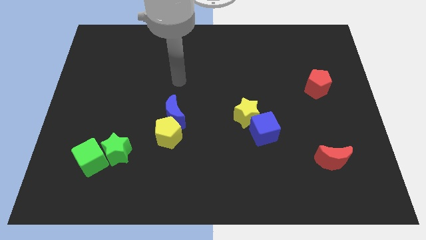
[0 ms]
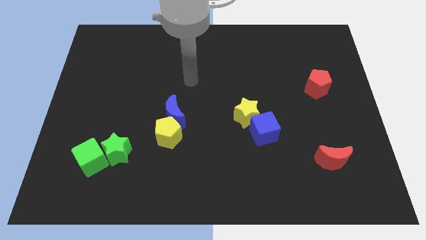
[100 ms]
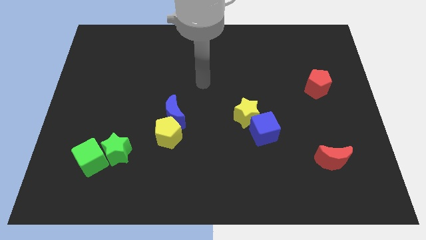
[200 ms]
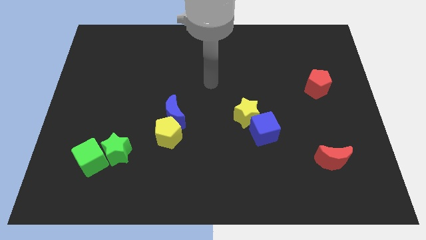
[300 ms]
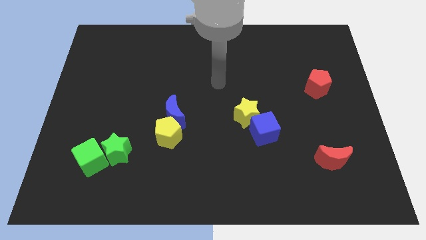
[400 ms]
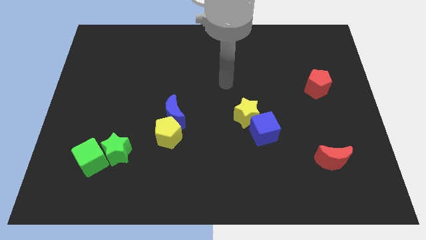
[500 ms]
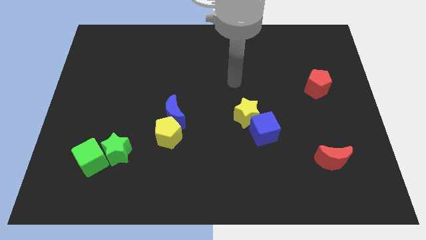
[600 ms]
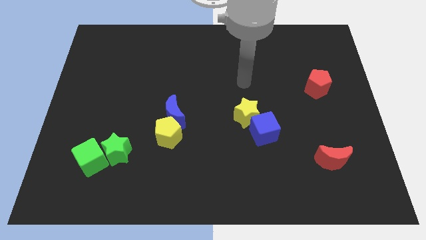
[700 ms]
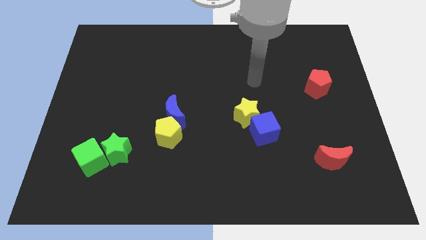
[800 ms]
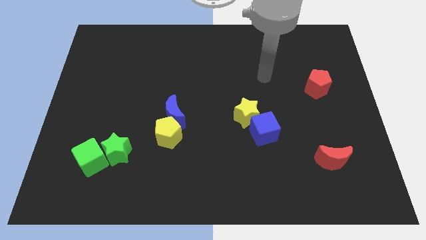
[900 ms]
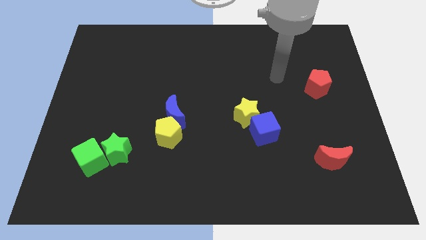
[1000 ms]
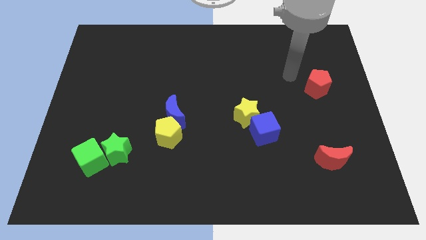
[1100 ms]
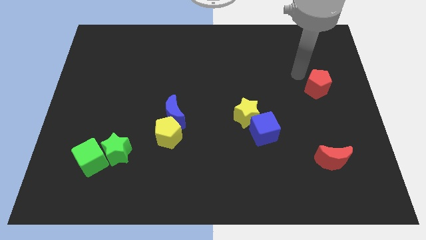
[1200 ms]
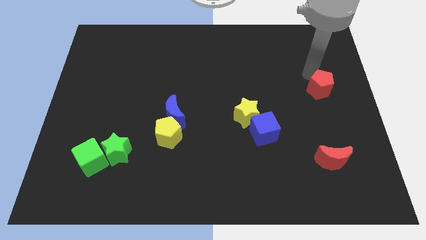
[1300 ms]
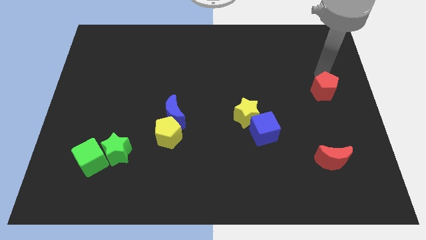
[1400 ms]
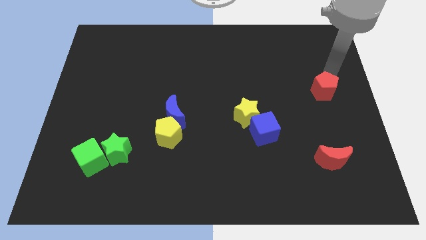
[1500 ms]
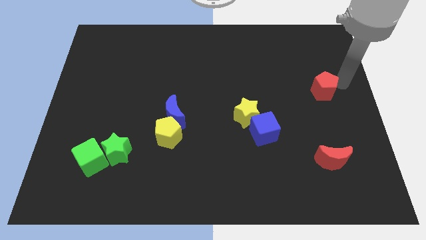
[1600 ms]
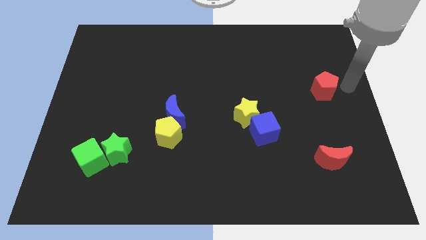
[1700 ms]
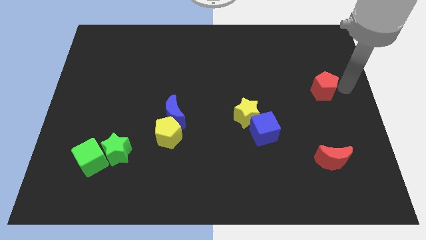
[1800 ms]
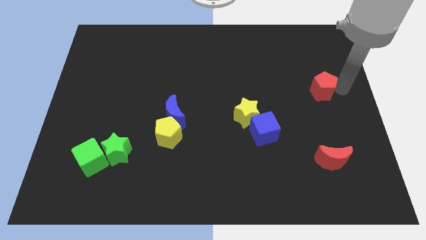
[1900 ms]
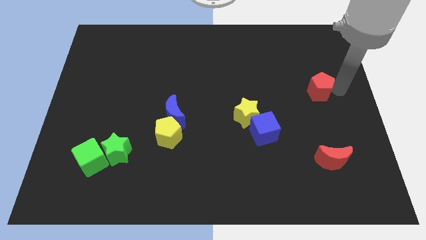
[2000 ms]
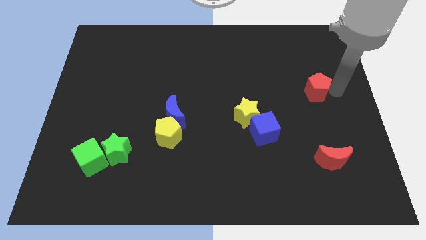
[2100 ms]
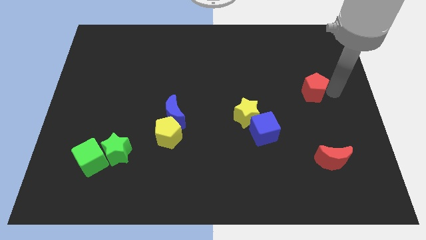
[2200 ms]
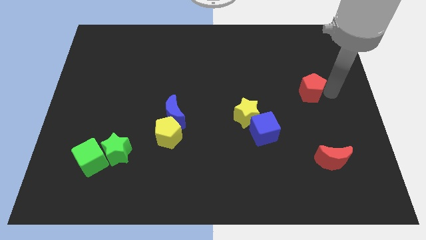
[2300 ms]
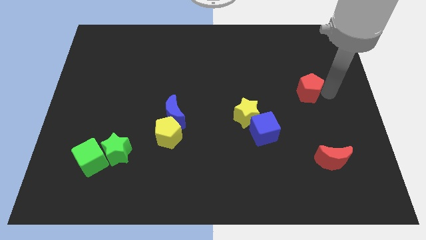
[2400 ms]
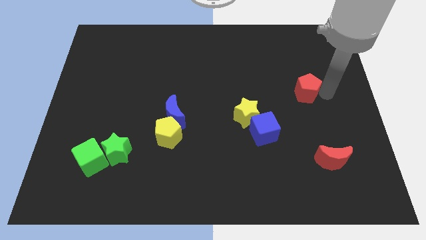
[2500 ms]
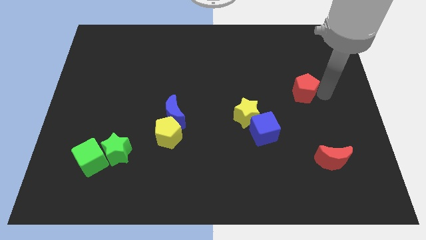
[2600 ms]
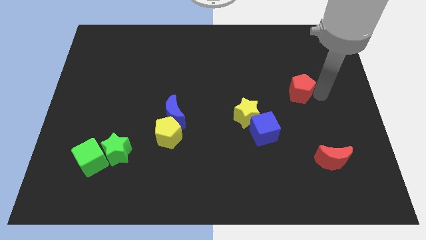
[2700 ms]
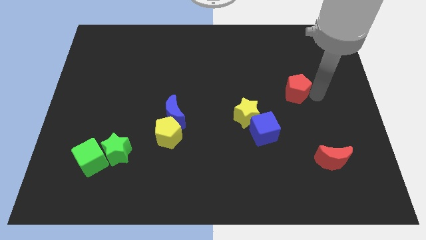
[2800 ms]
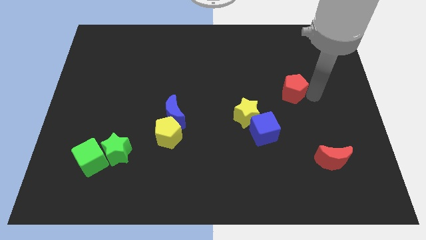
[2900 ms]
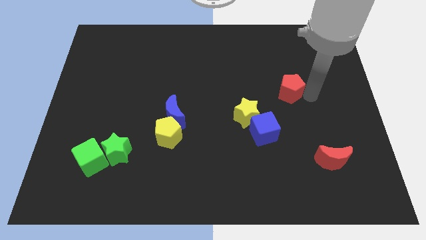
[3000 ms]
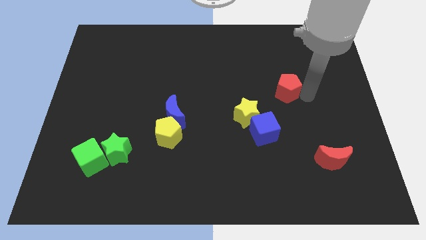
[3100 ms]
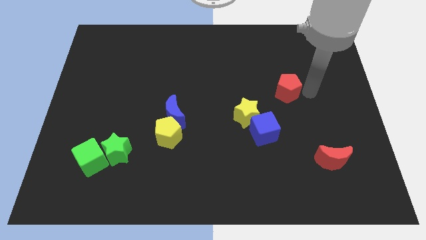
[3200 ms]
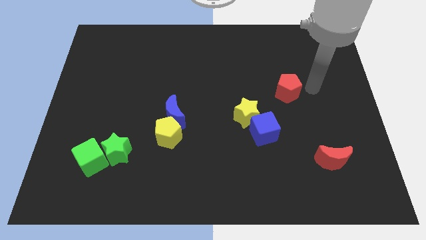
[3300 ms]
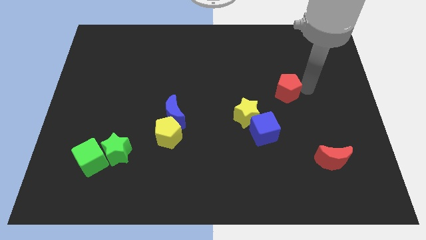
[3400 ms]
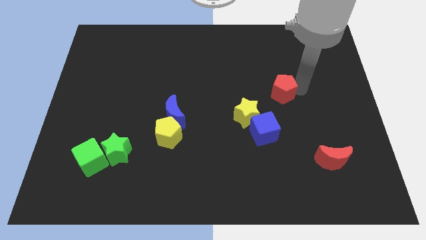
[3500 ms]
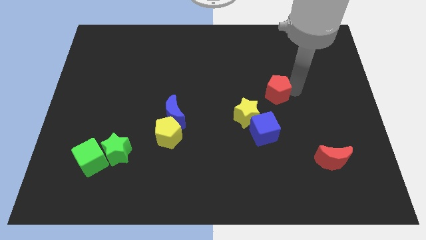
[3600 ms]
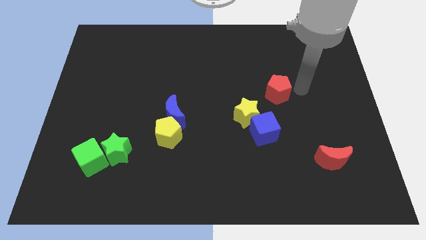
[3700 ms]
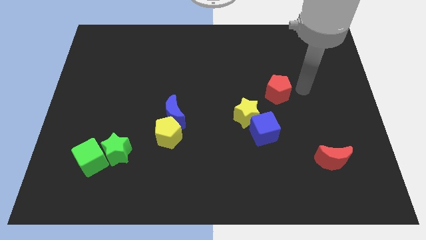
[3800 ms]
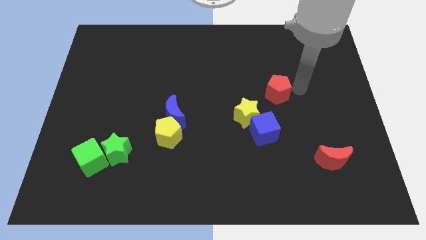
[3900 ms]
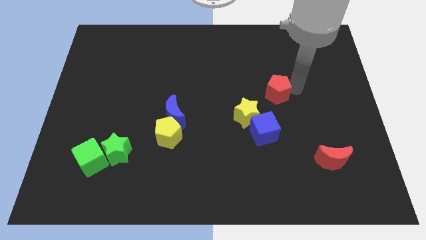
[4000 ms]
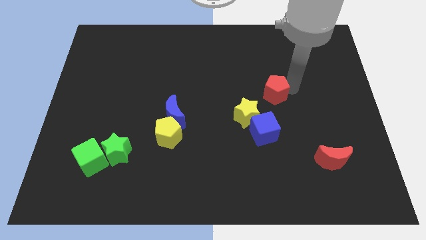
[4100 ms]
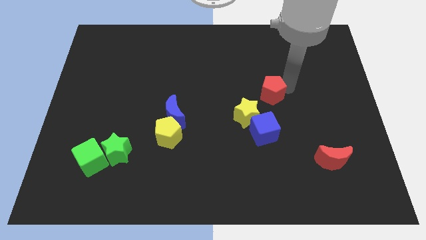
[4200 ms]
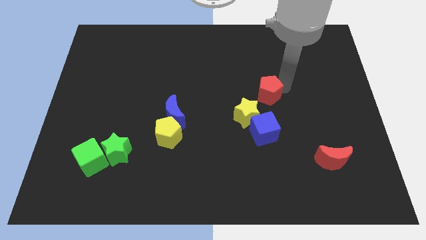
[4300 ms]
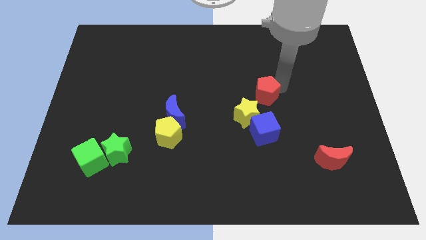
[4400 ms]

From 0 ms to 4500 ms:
slide the red pentagon to the center of the board

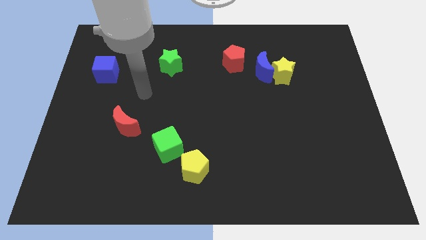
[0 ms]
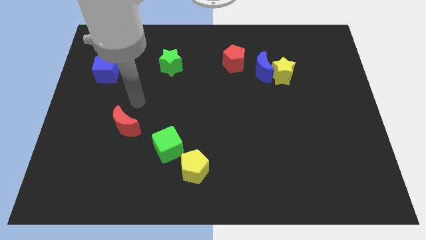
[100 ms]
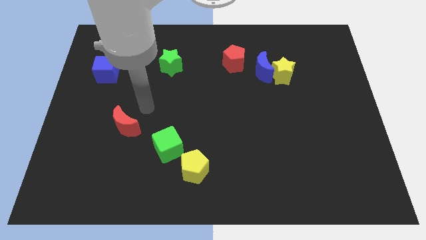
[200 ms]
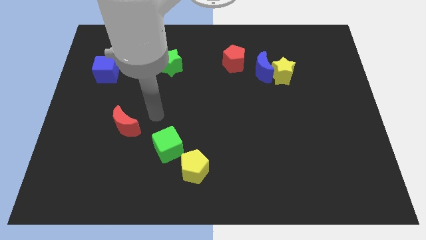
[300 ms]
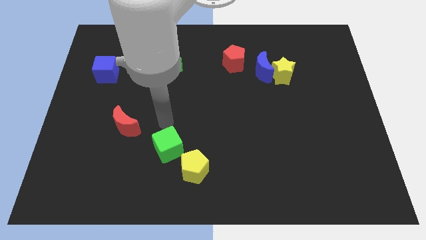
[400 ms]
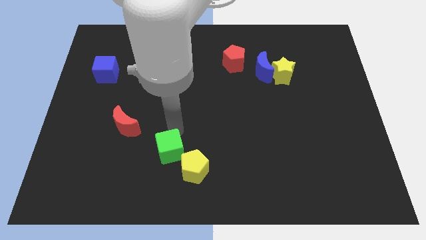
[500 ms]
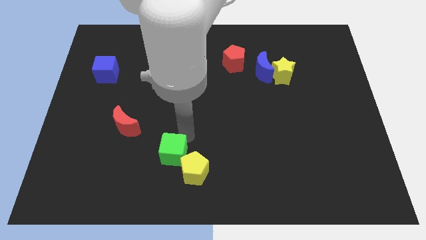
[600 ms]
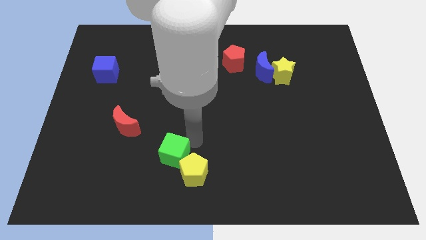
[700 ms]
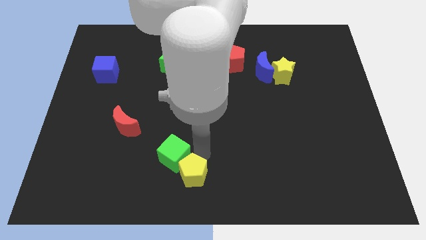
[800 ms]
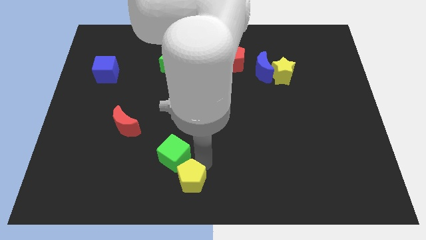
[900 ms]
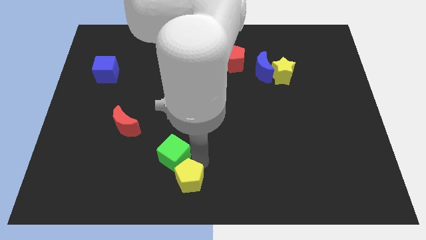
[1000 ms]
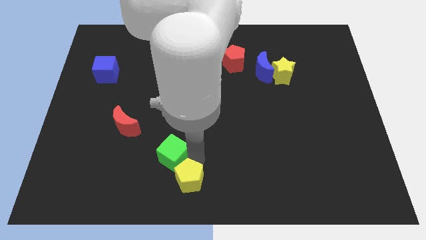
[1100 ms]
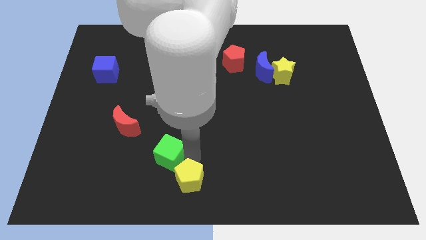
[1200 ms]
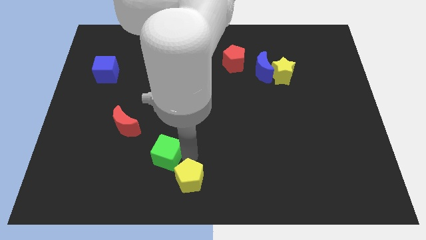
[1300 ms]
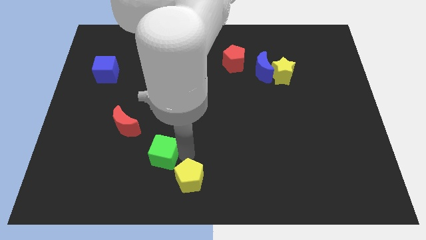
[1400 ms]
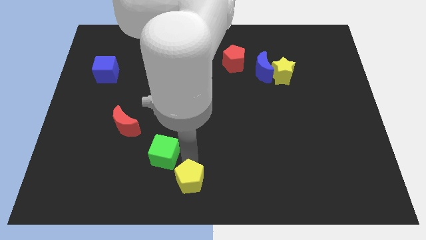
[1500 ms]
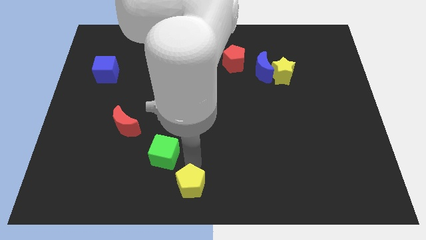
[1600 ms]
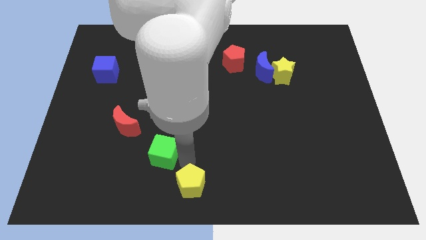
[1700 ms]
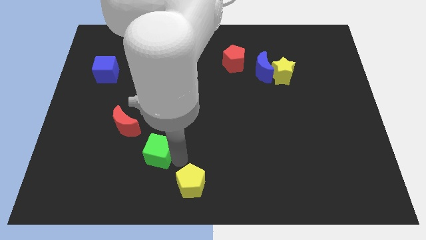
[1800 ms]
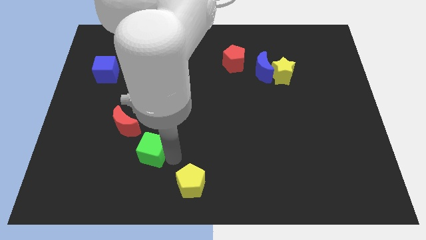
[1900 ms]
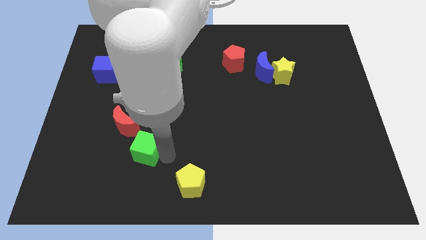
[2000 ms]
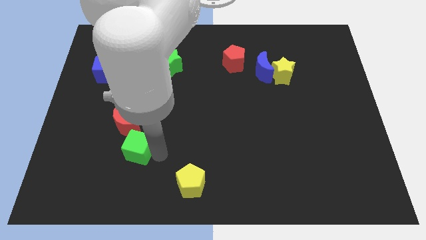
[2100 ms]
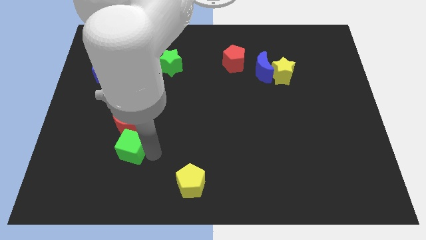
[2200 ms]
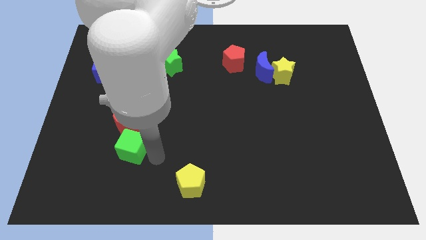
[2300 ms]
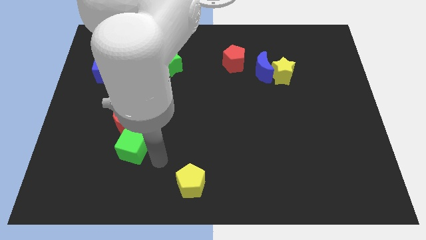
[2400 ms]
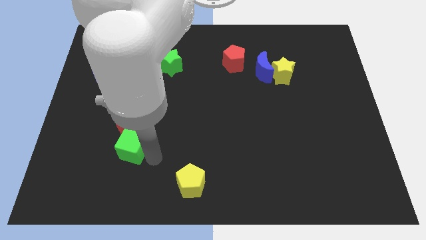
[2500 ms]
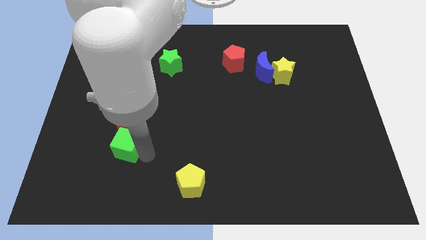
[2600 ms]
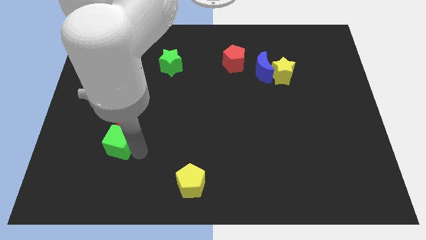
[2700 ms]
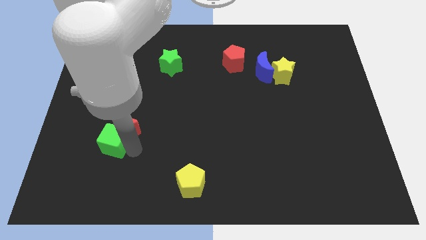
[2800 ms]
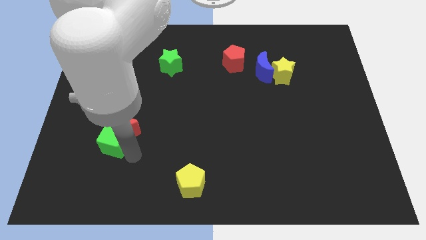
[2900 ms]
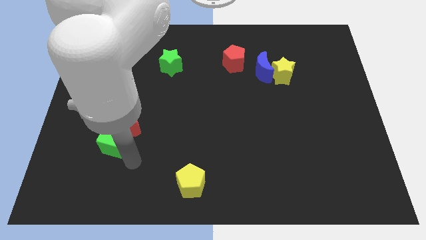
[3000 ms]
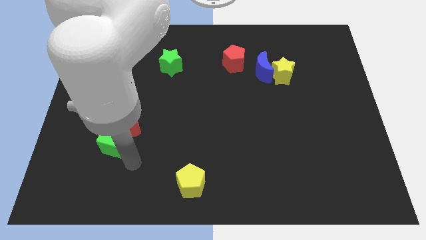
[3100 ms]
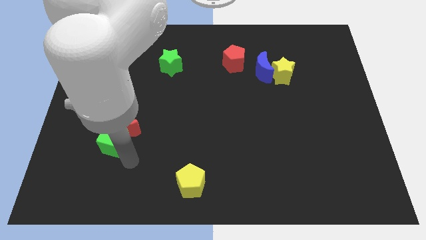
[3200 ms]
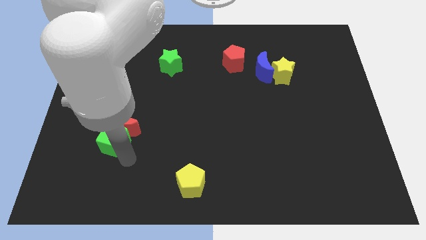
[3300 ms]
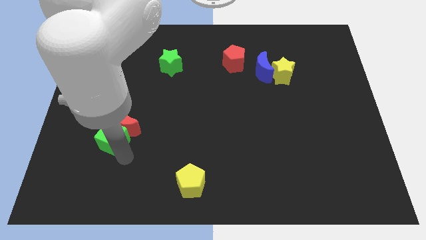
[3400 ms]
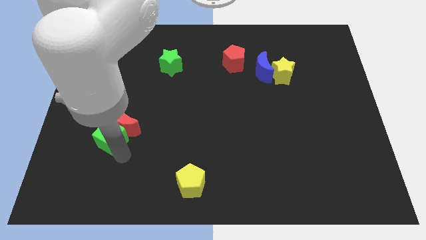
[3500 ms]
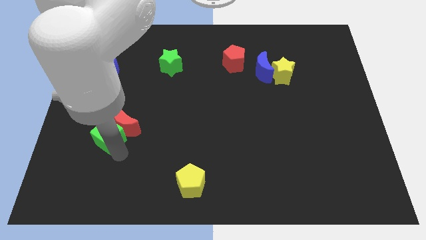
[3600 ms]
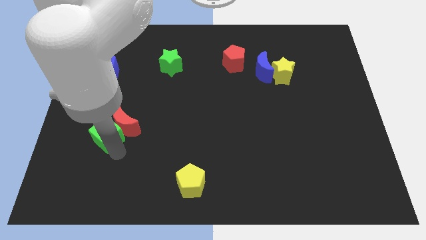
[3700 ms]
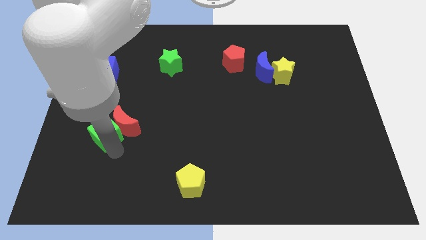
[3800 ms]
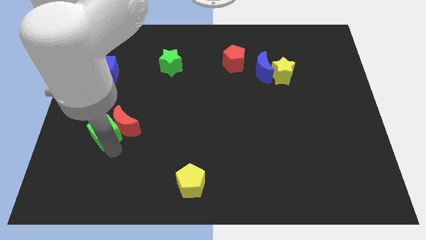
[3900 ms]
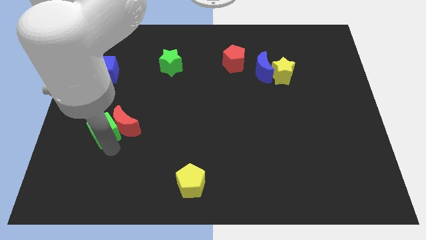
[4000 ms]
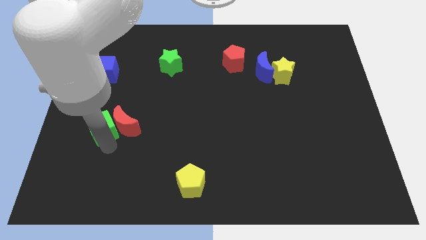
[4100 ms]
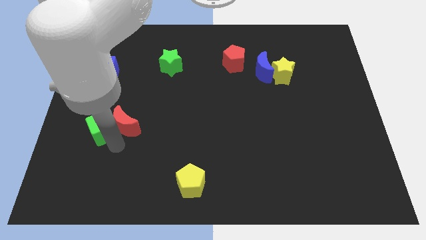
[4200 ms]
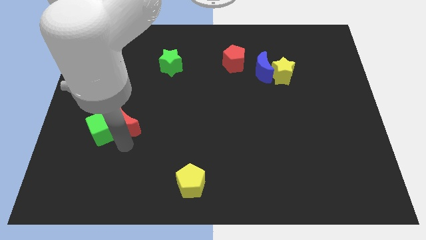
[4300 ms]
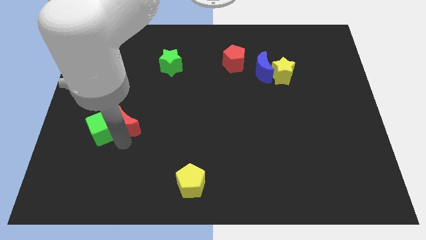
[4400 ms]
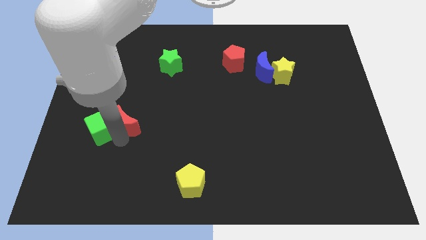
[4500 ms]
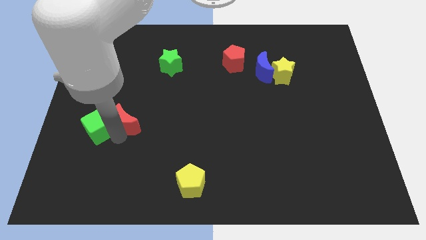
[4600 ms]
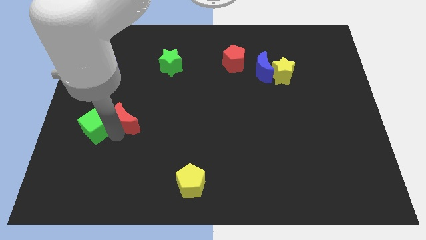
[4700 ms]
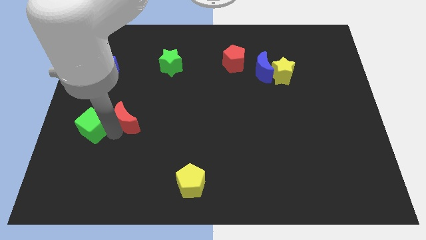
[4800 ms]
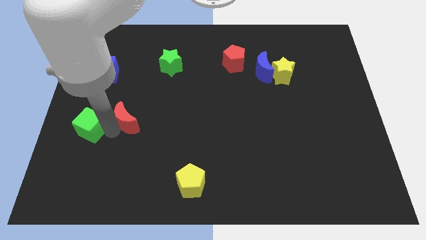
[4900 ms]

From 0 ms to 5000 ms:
put the green cube to the left side
